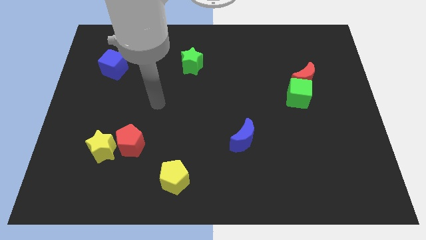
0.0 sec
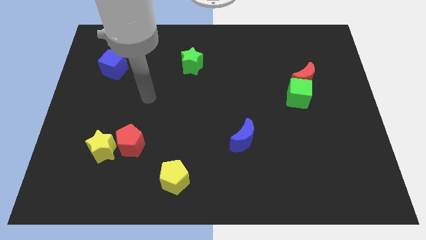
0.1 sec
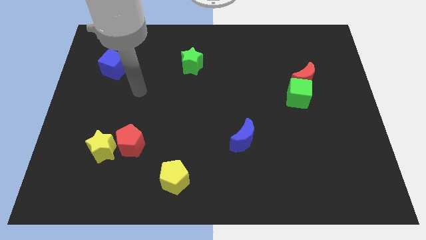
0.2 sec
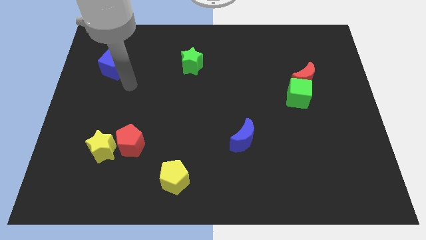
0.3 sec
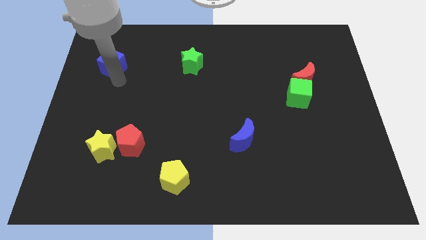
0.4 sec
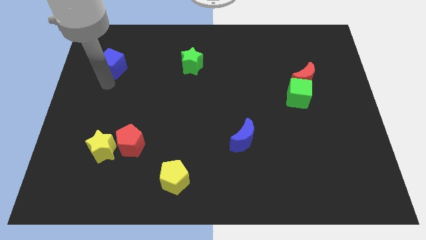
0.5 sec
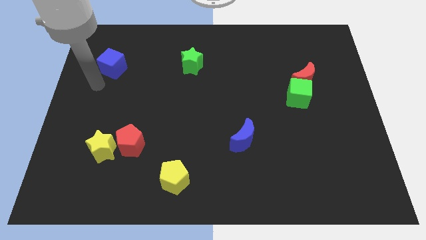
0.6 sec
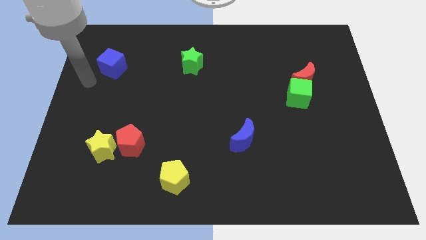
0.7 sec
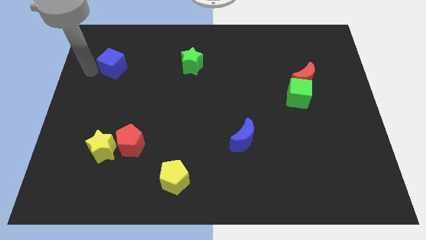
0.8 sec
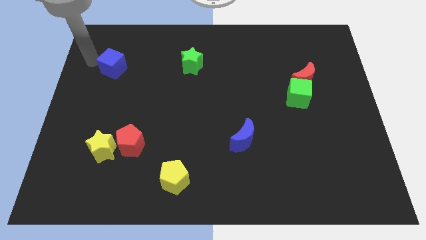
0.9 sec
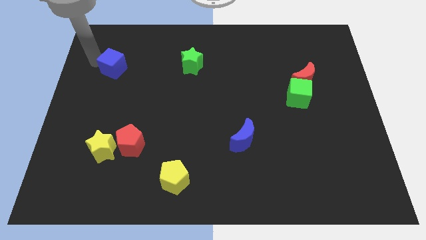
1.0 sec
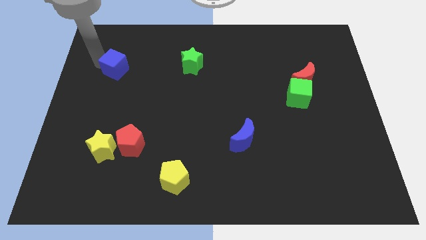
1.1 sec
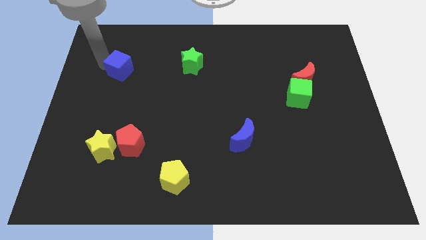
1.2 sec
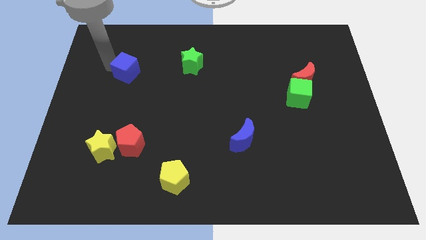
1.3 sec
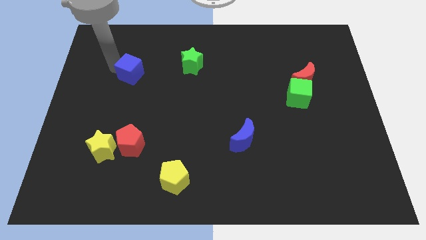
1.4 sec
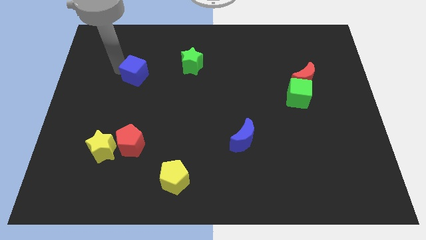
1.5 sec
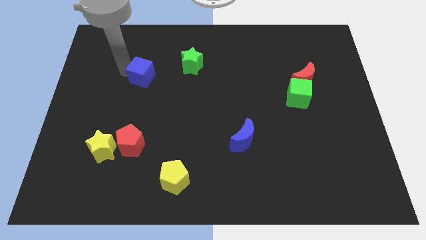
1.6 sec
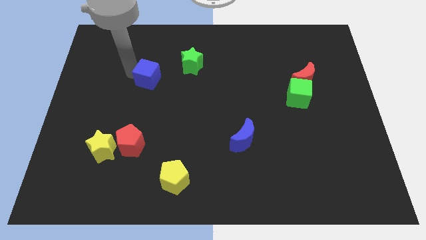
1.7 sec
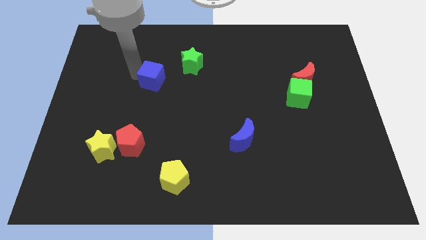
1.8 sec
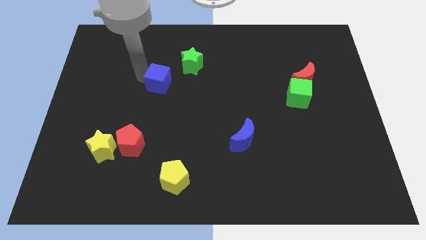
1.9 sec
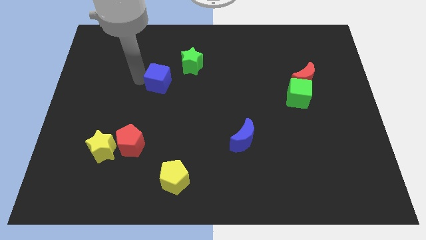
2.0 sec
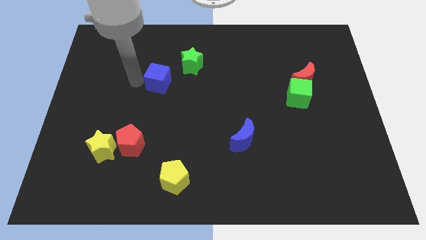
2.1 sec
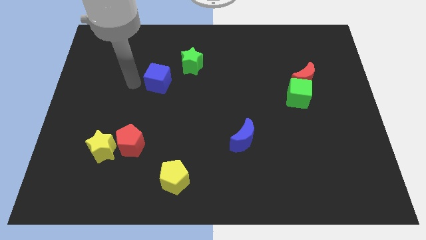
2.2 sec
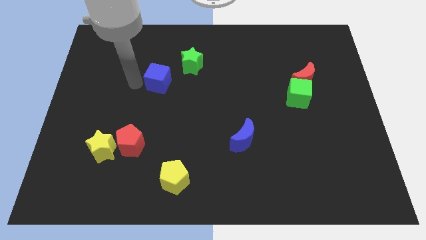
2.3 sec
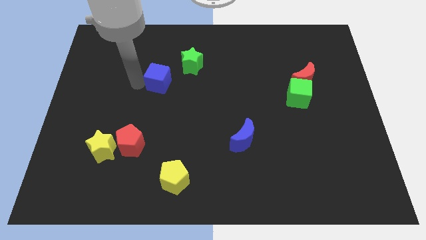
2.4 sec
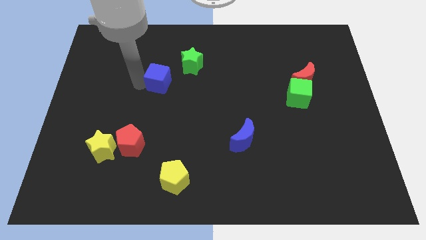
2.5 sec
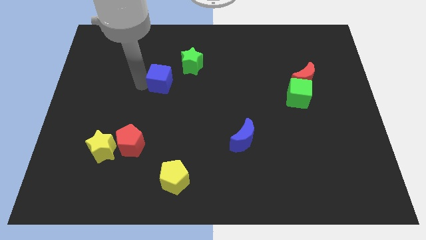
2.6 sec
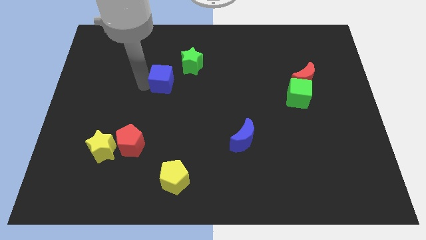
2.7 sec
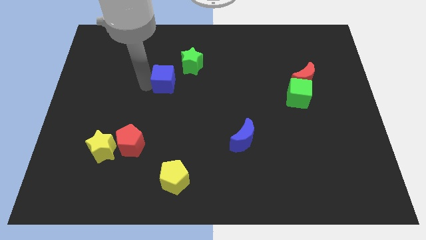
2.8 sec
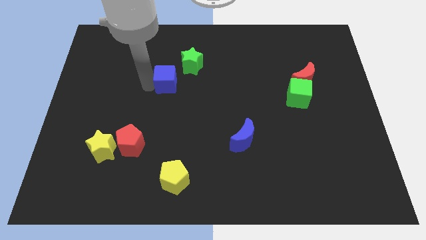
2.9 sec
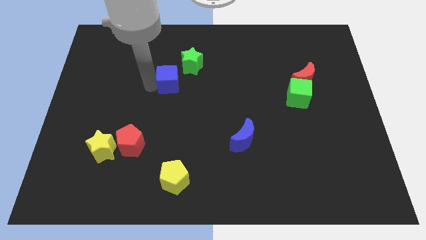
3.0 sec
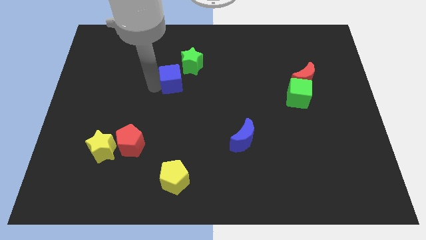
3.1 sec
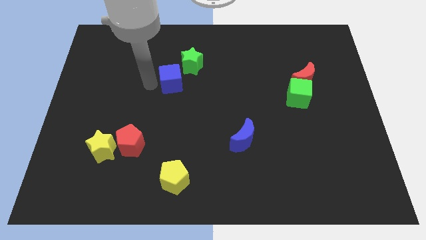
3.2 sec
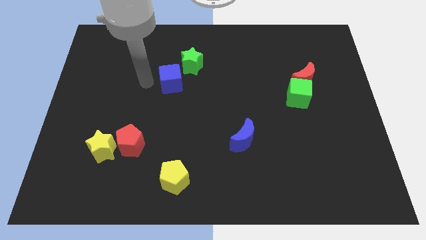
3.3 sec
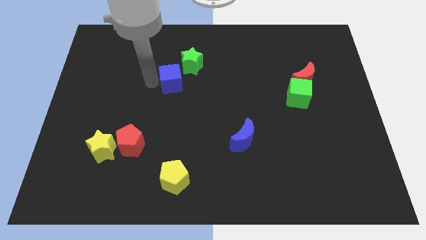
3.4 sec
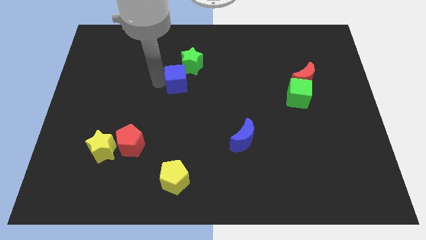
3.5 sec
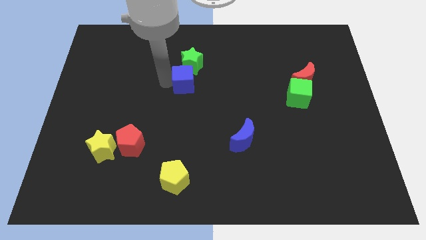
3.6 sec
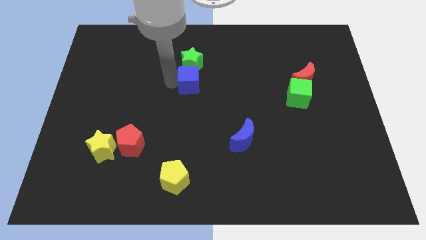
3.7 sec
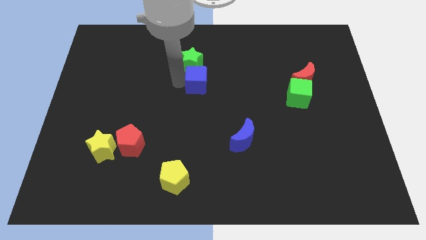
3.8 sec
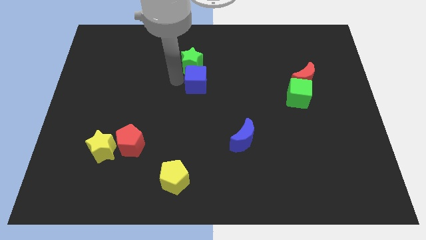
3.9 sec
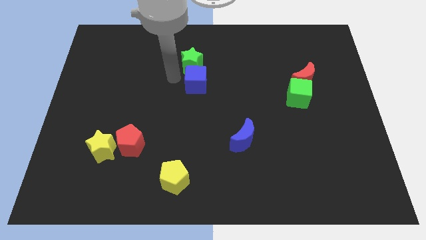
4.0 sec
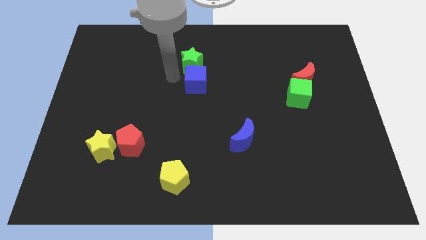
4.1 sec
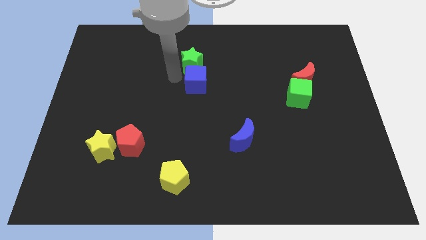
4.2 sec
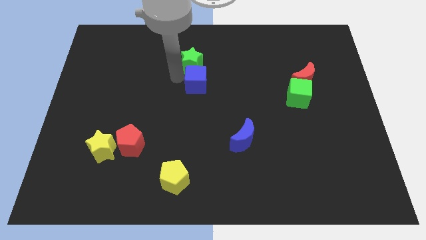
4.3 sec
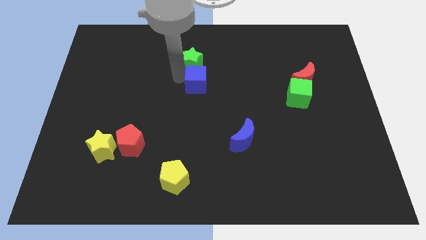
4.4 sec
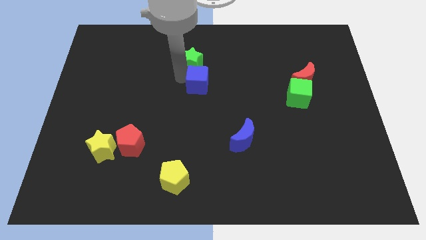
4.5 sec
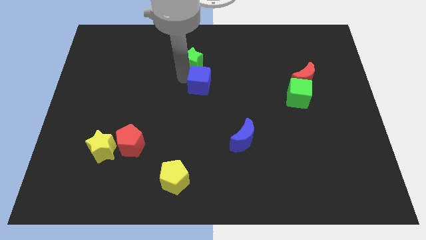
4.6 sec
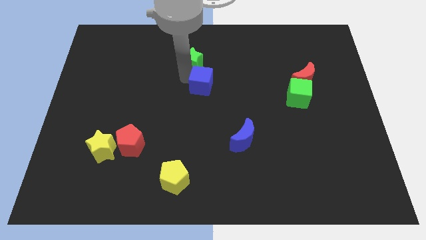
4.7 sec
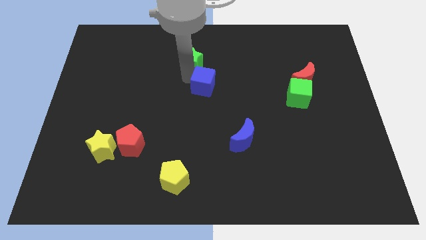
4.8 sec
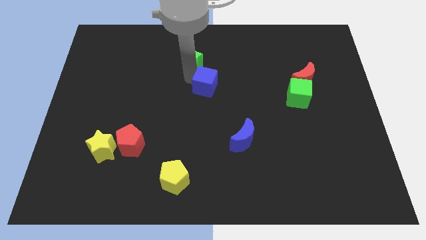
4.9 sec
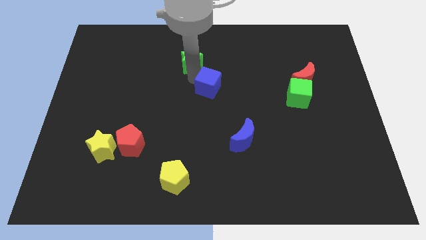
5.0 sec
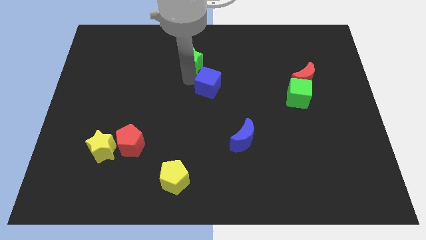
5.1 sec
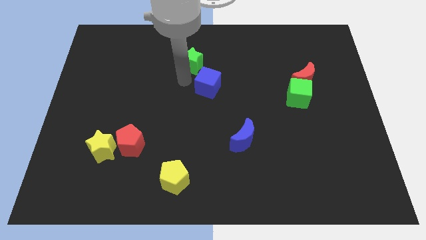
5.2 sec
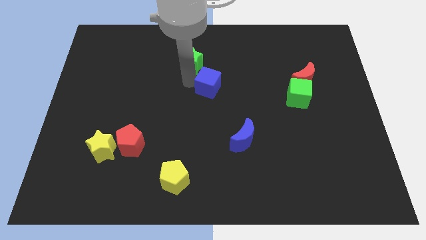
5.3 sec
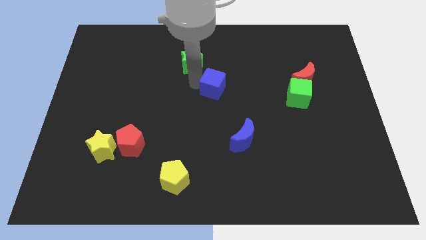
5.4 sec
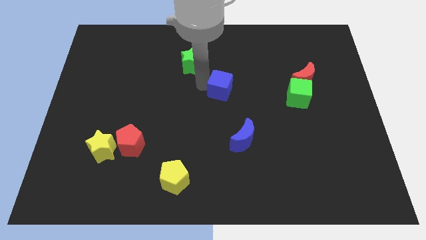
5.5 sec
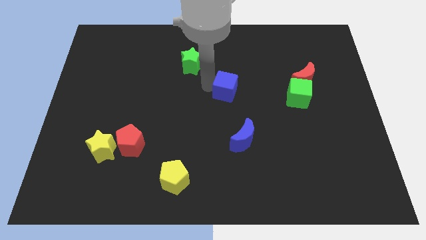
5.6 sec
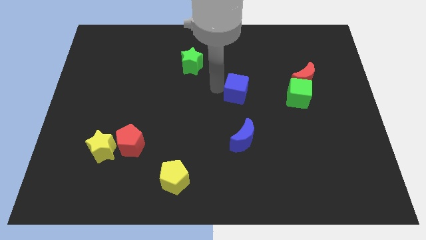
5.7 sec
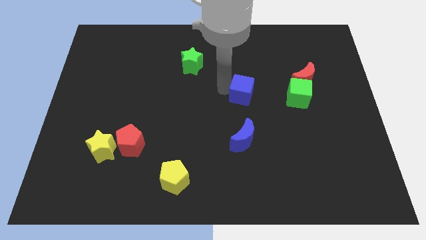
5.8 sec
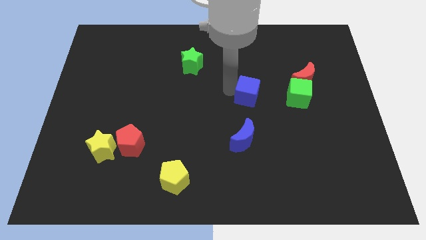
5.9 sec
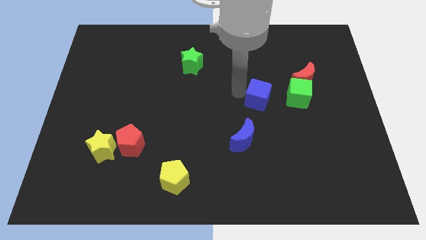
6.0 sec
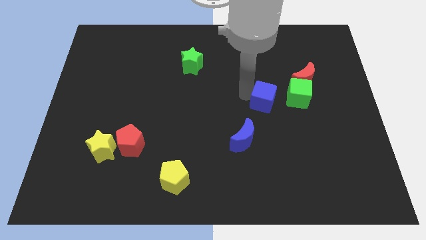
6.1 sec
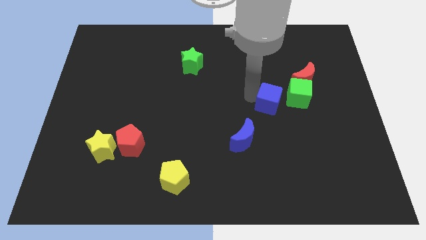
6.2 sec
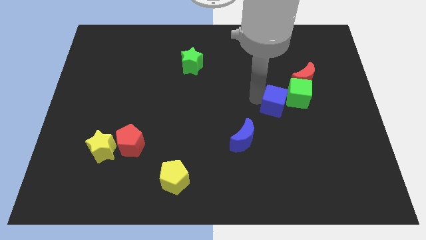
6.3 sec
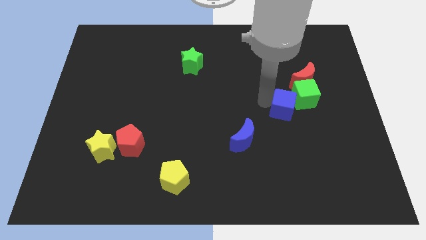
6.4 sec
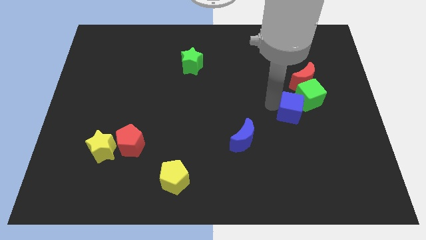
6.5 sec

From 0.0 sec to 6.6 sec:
move the blue cube to the bottom of the red moon

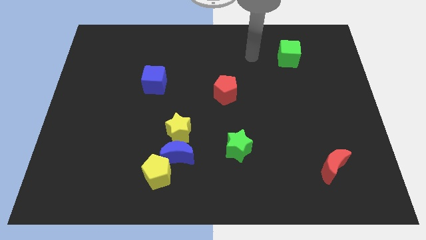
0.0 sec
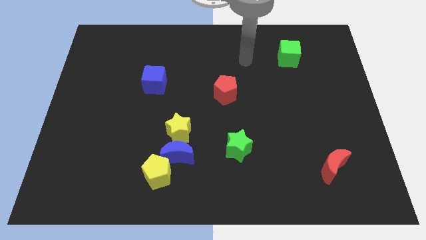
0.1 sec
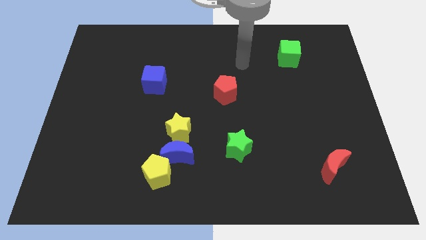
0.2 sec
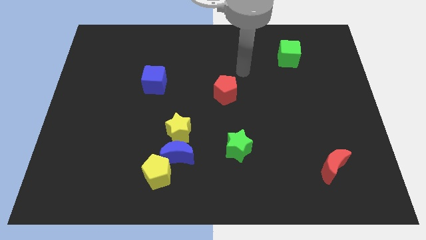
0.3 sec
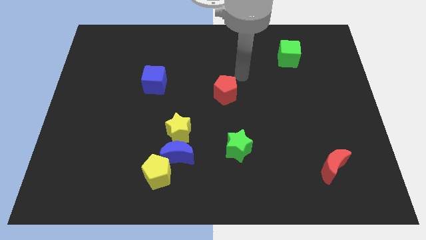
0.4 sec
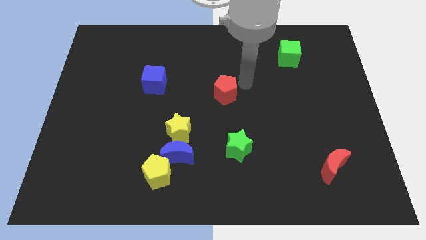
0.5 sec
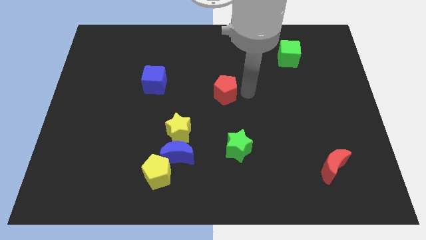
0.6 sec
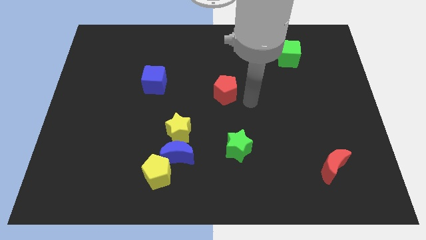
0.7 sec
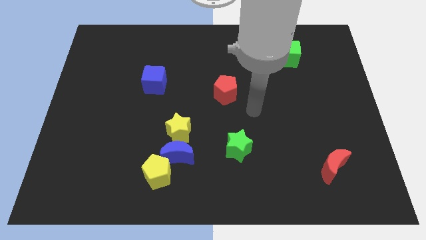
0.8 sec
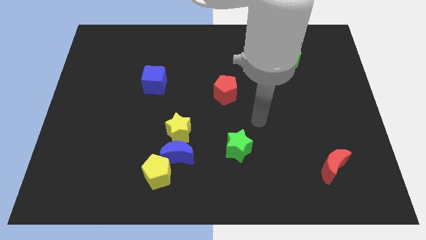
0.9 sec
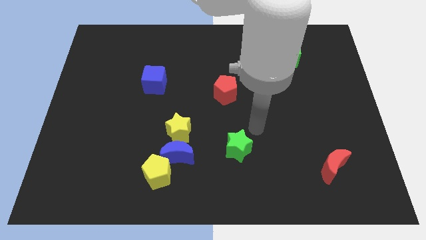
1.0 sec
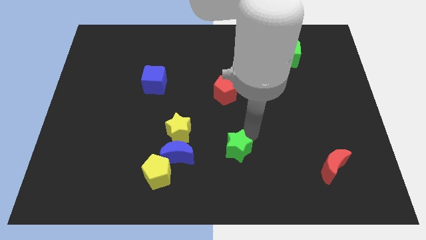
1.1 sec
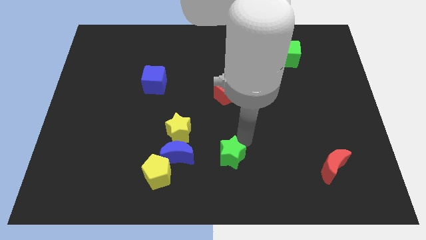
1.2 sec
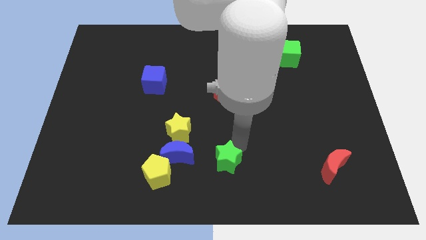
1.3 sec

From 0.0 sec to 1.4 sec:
put the green star just right of the yellow pentagon
